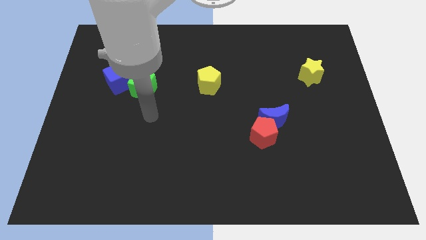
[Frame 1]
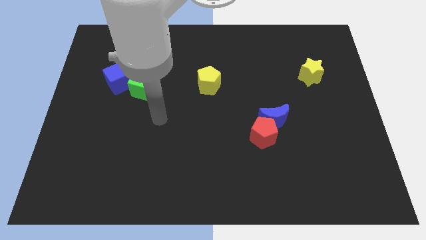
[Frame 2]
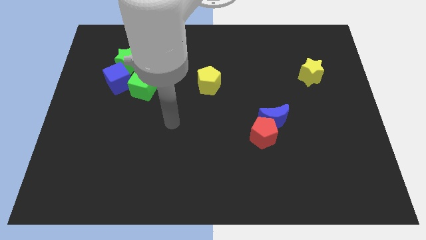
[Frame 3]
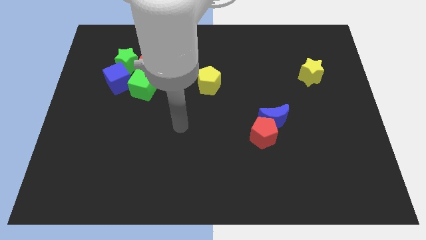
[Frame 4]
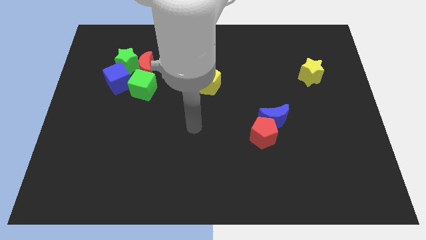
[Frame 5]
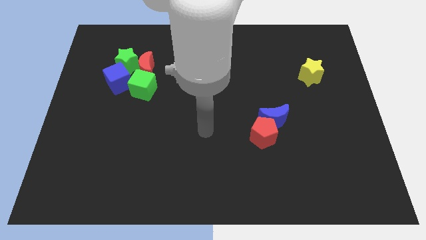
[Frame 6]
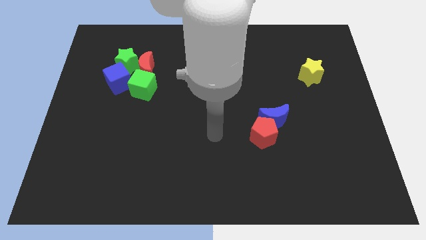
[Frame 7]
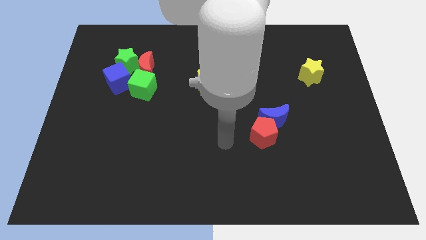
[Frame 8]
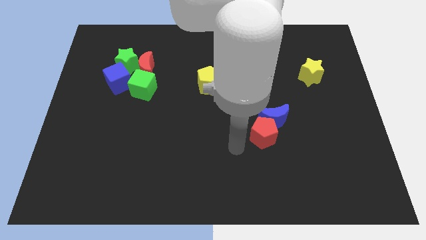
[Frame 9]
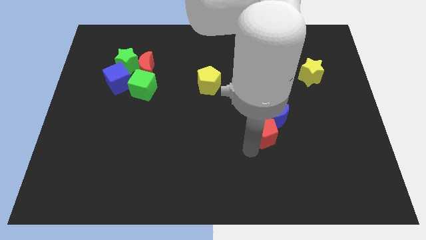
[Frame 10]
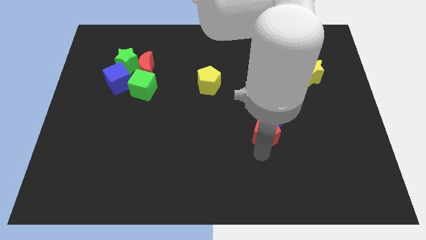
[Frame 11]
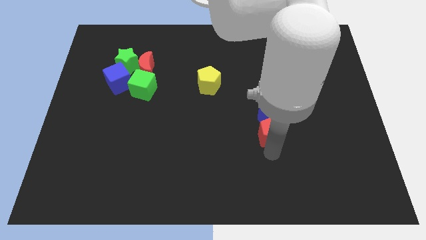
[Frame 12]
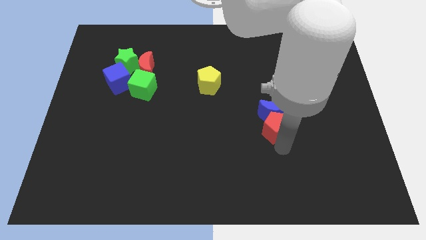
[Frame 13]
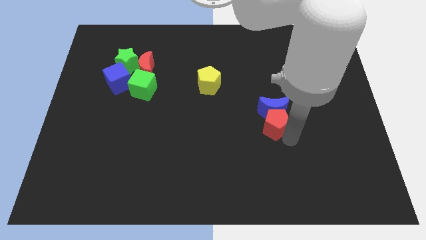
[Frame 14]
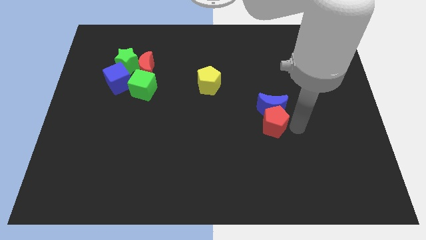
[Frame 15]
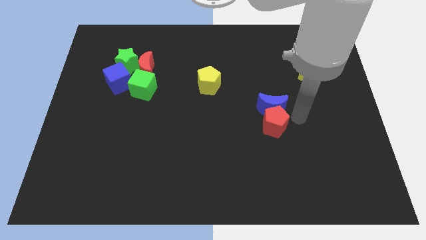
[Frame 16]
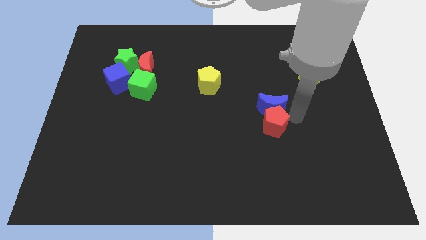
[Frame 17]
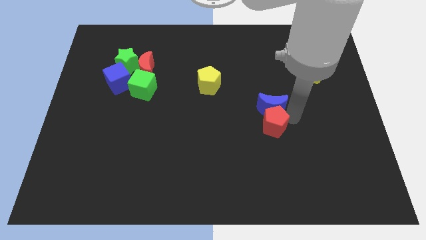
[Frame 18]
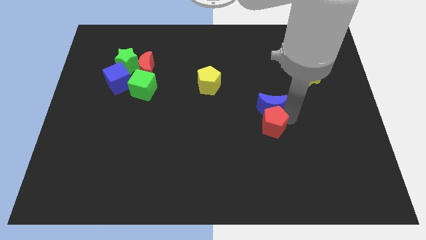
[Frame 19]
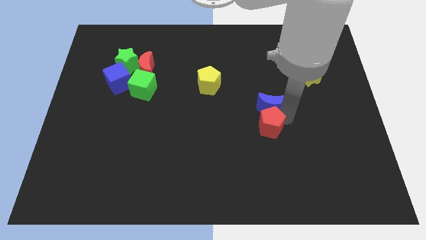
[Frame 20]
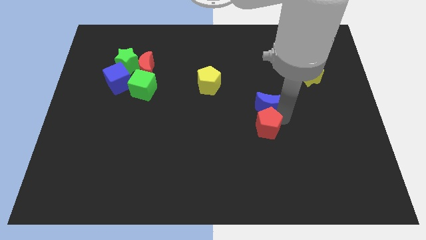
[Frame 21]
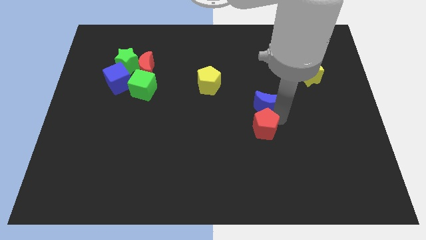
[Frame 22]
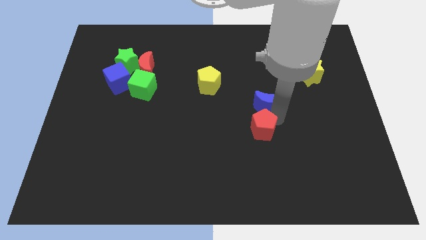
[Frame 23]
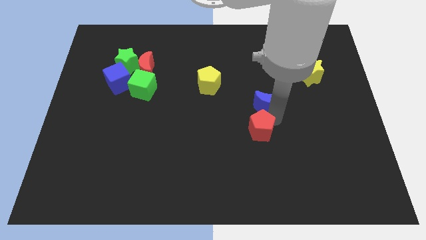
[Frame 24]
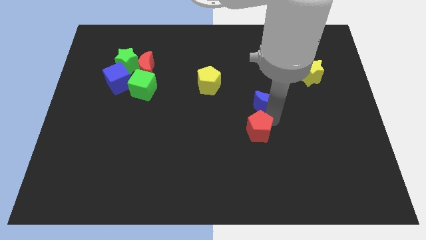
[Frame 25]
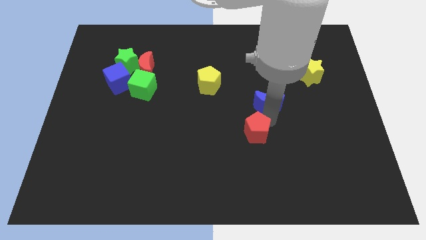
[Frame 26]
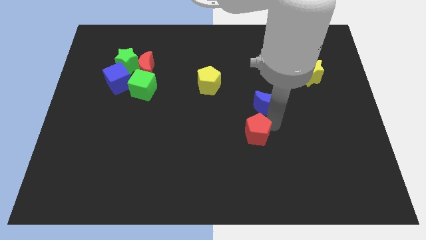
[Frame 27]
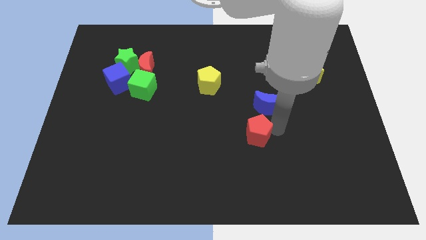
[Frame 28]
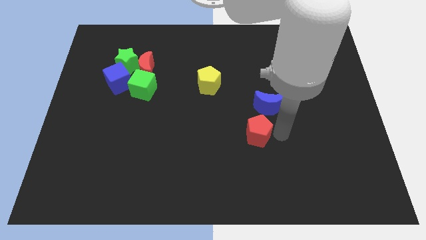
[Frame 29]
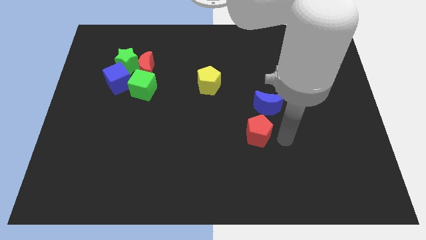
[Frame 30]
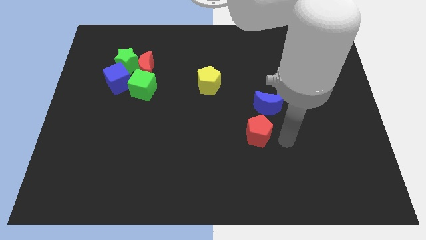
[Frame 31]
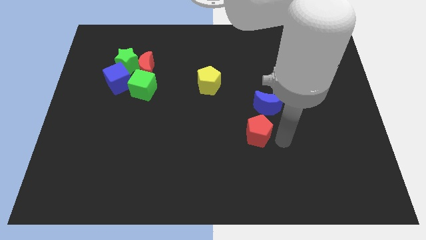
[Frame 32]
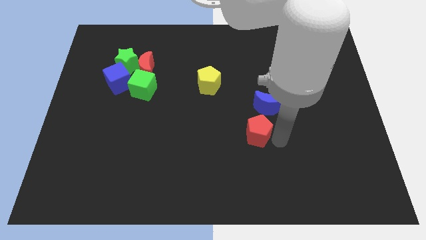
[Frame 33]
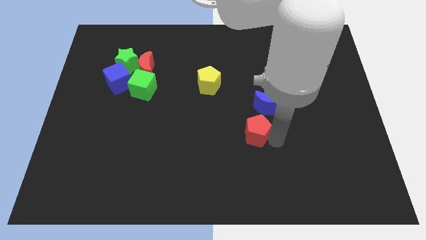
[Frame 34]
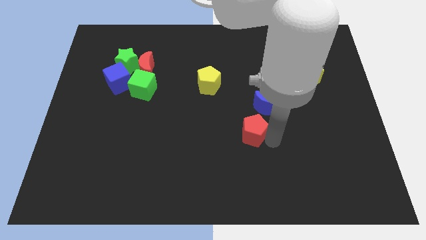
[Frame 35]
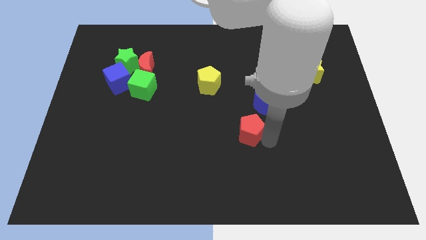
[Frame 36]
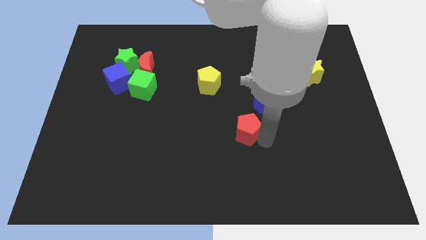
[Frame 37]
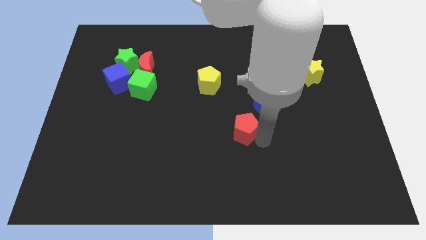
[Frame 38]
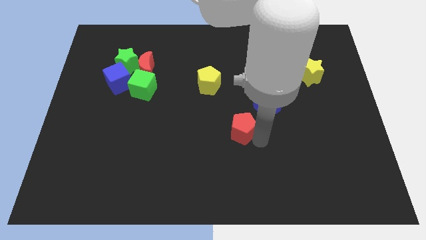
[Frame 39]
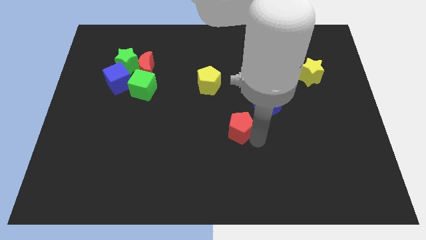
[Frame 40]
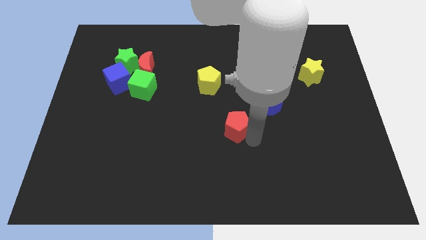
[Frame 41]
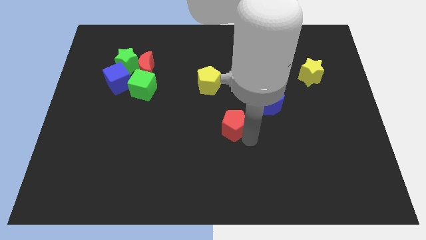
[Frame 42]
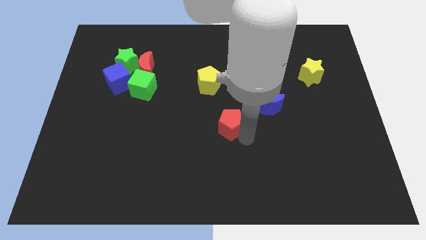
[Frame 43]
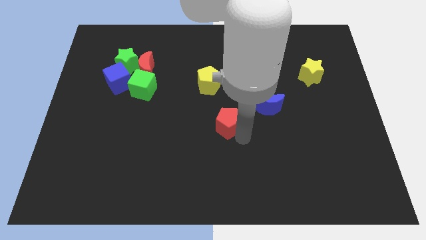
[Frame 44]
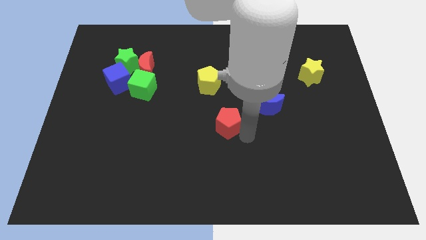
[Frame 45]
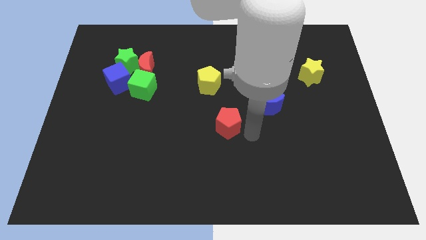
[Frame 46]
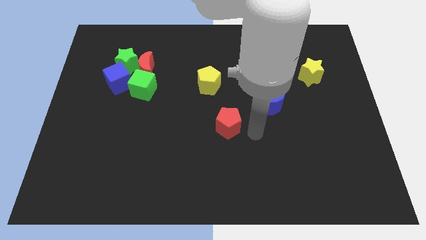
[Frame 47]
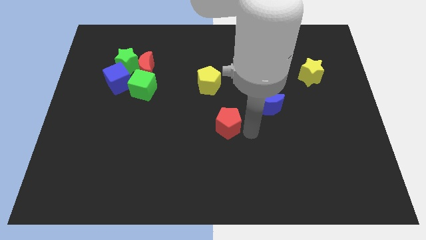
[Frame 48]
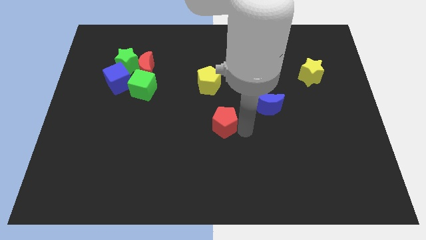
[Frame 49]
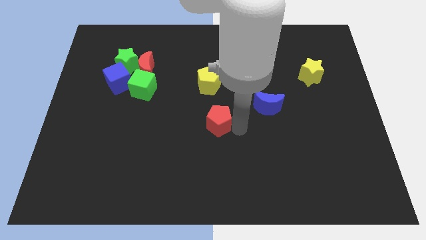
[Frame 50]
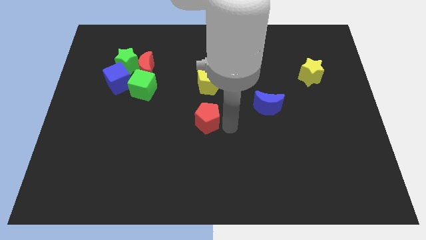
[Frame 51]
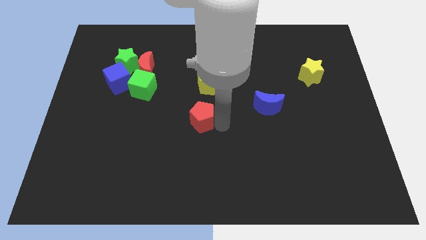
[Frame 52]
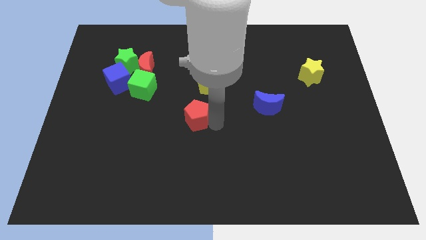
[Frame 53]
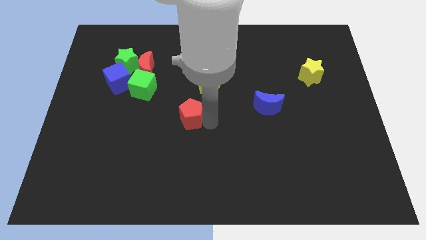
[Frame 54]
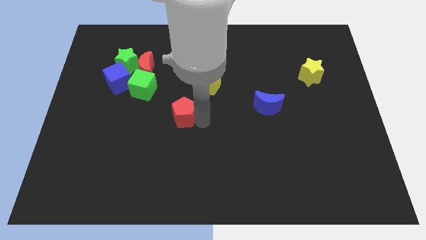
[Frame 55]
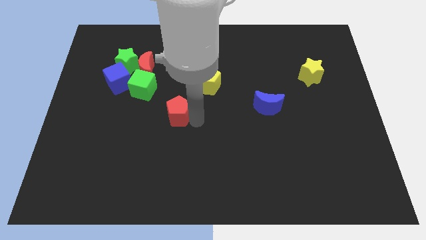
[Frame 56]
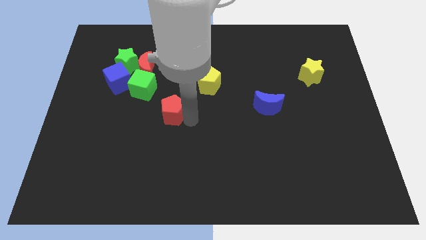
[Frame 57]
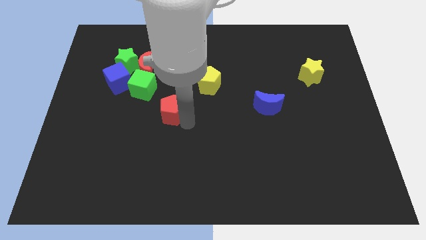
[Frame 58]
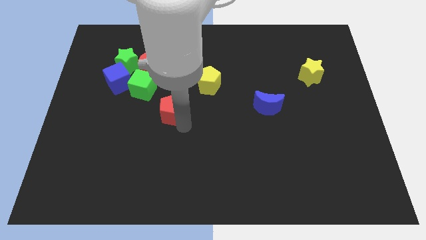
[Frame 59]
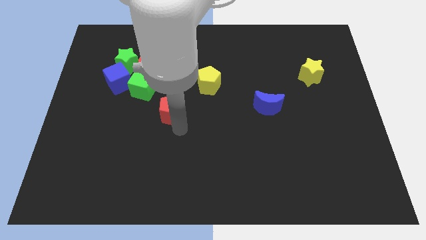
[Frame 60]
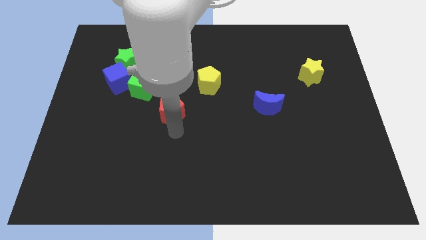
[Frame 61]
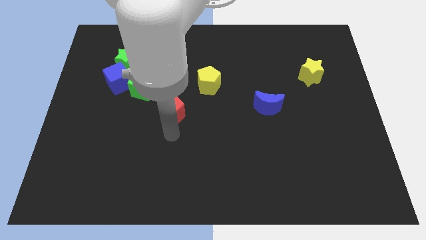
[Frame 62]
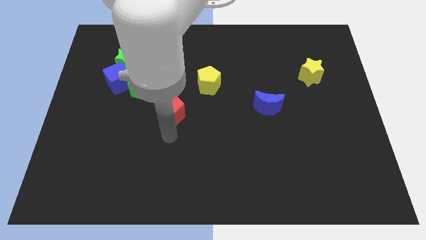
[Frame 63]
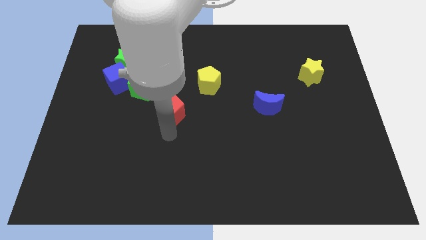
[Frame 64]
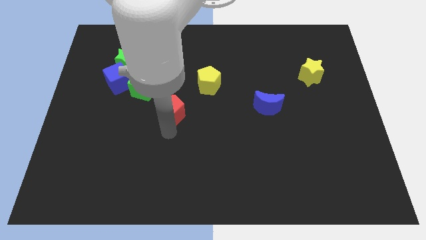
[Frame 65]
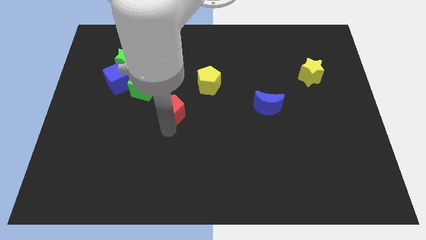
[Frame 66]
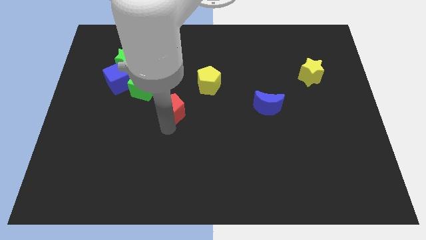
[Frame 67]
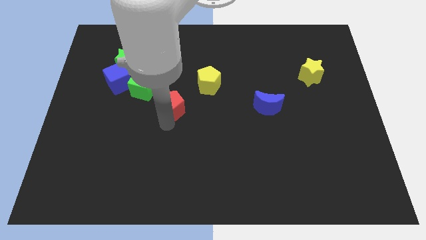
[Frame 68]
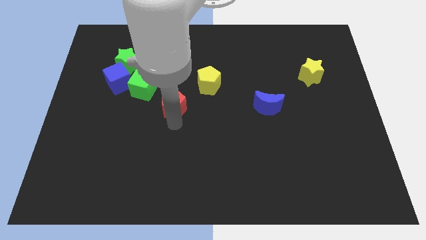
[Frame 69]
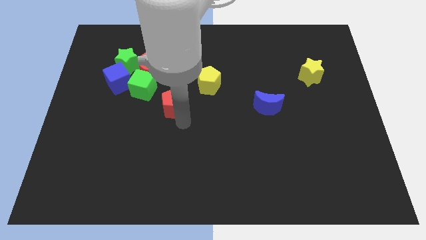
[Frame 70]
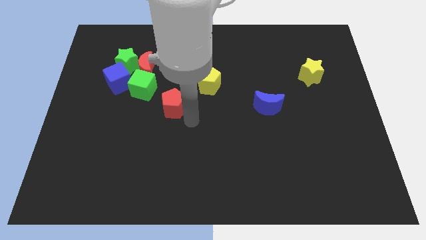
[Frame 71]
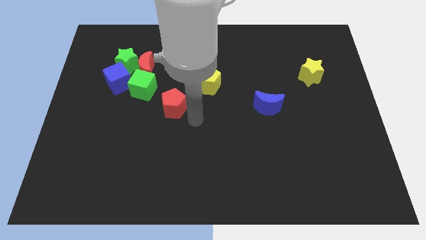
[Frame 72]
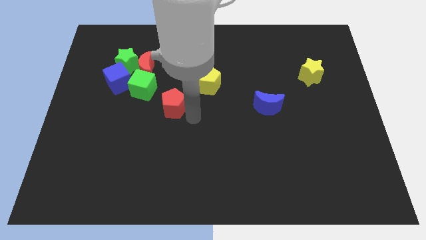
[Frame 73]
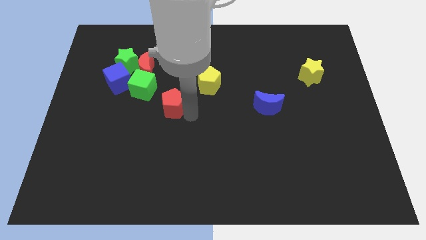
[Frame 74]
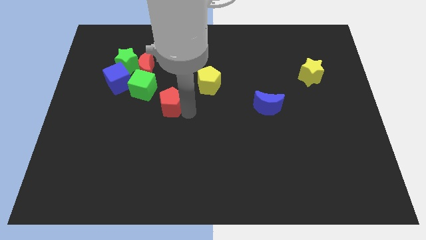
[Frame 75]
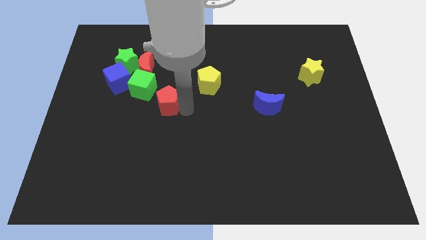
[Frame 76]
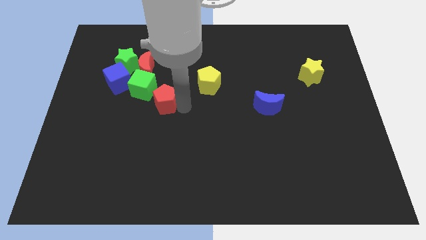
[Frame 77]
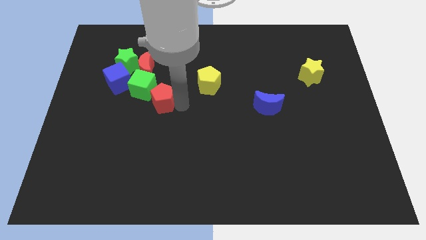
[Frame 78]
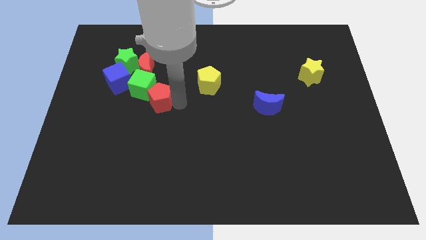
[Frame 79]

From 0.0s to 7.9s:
move the red pentagon towards the green cube
